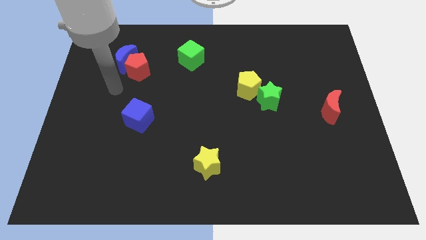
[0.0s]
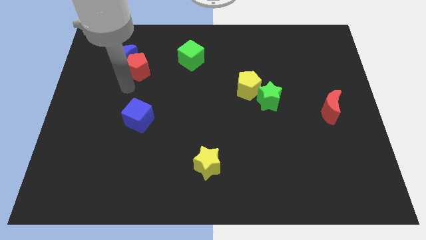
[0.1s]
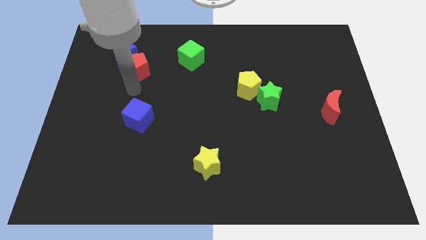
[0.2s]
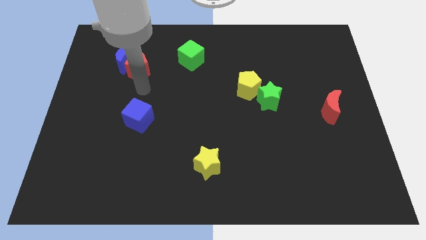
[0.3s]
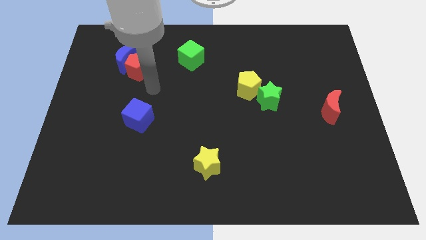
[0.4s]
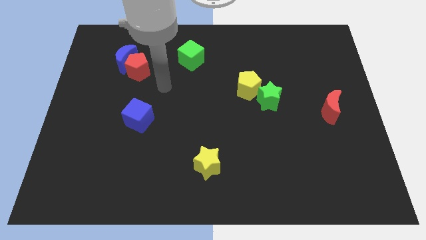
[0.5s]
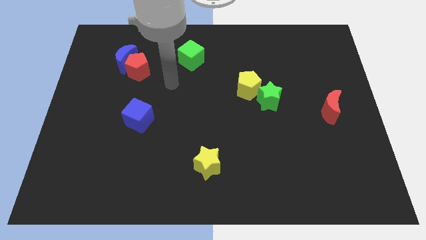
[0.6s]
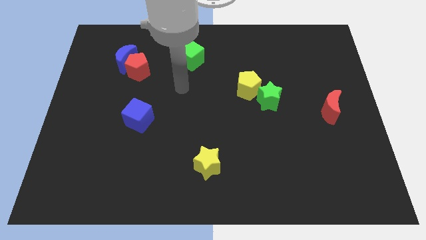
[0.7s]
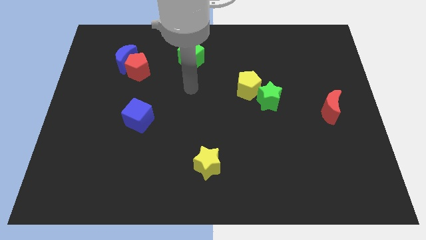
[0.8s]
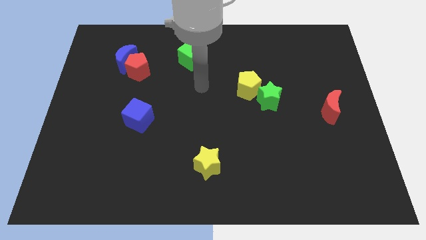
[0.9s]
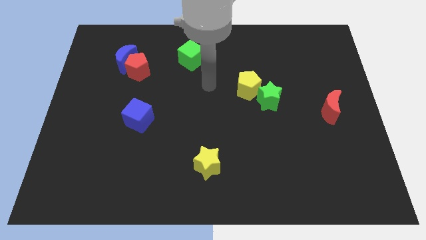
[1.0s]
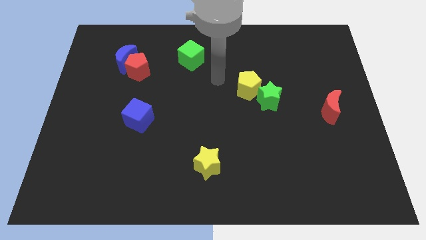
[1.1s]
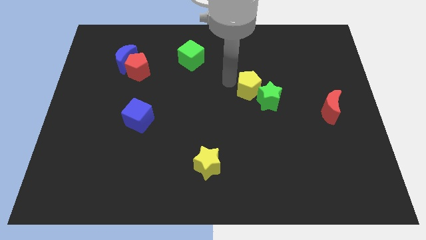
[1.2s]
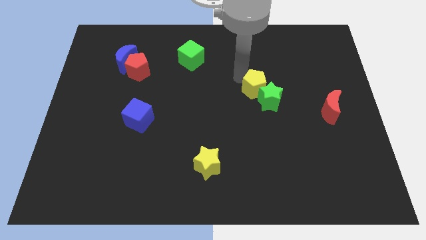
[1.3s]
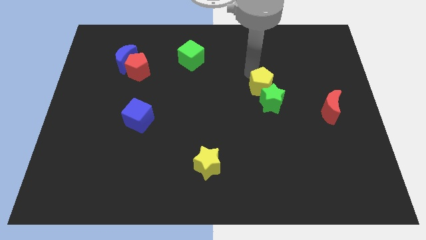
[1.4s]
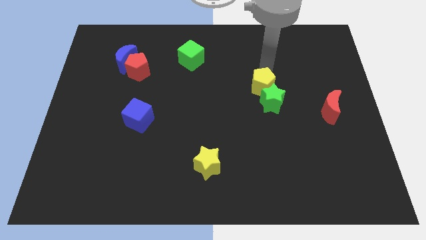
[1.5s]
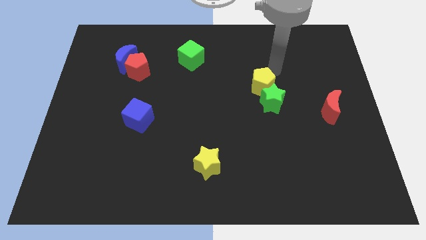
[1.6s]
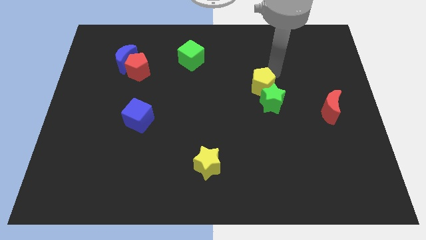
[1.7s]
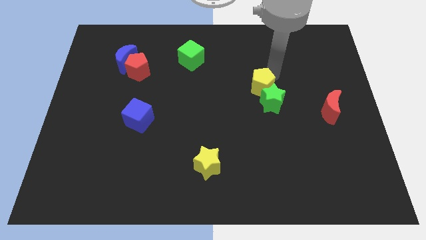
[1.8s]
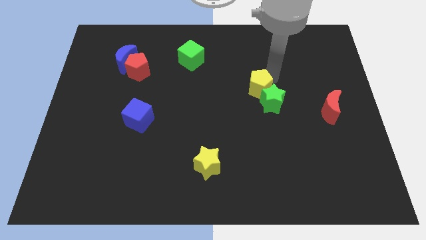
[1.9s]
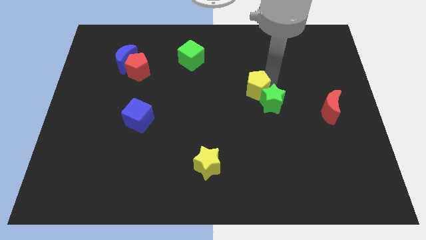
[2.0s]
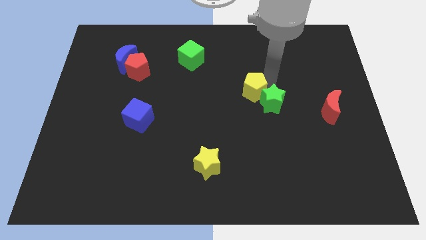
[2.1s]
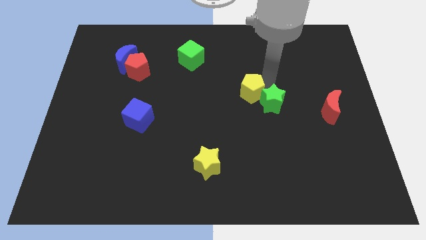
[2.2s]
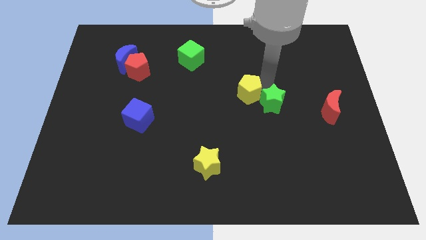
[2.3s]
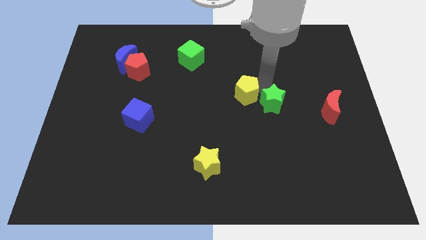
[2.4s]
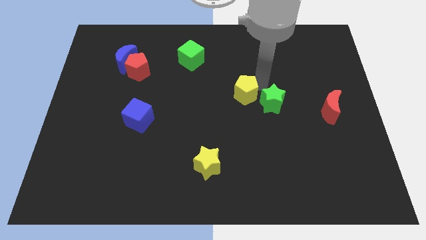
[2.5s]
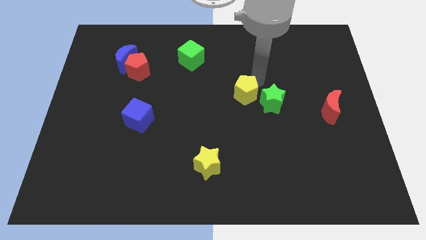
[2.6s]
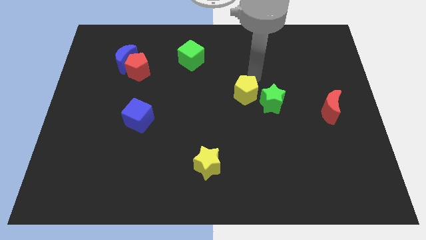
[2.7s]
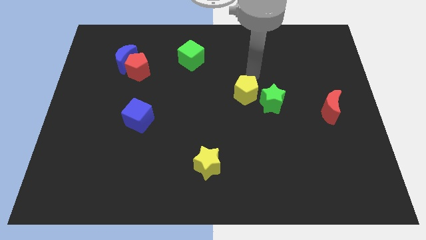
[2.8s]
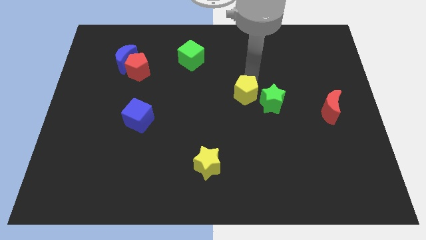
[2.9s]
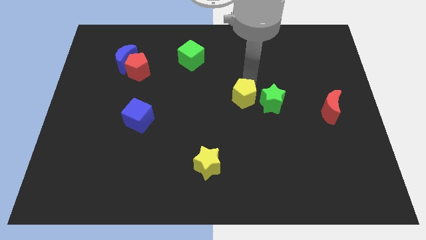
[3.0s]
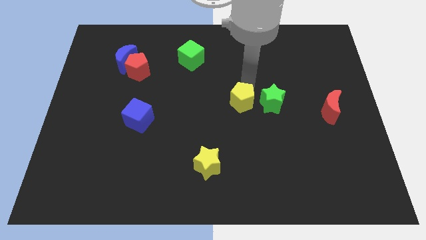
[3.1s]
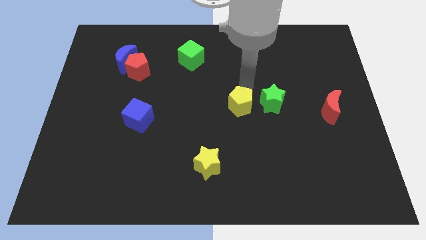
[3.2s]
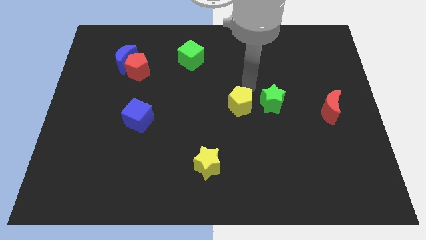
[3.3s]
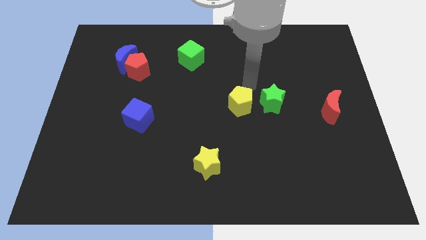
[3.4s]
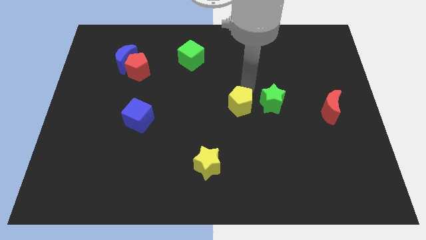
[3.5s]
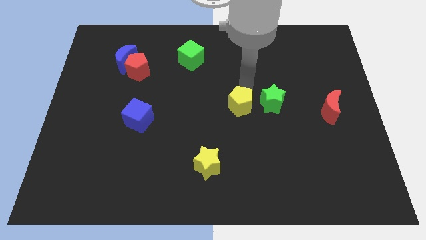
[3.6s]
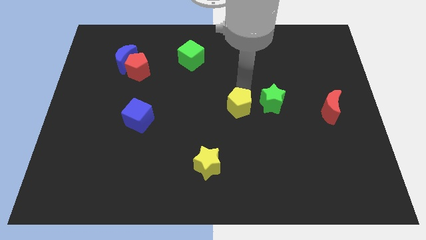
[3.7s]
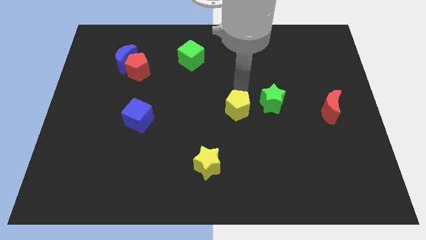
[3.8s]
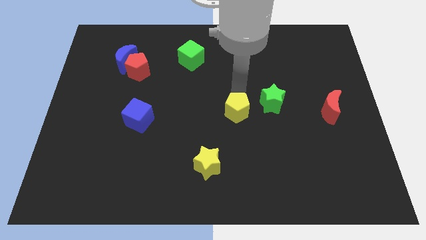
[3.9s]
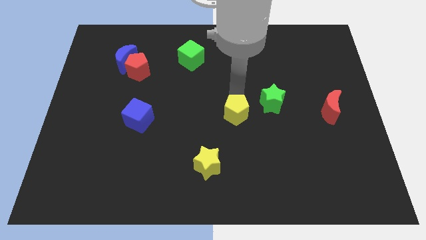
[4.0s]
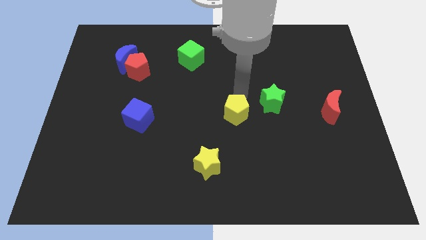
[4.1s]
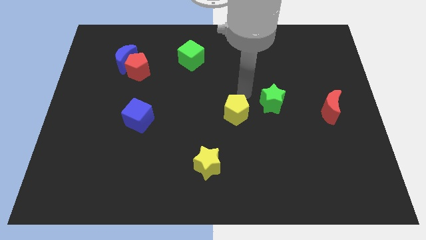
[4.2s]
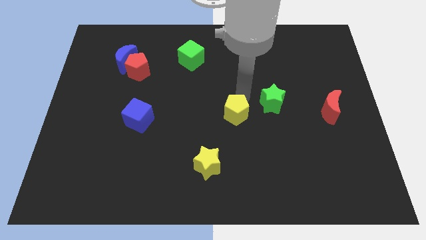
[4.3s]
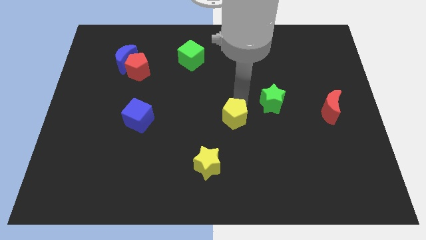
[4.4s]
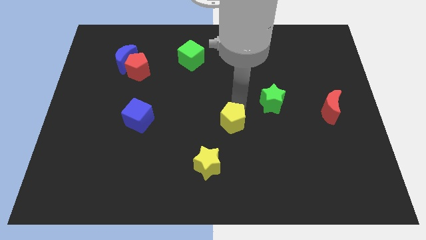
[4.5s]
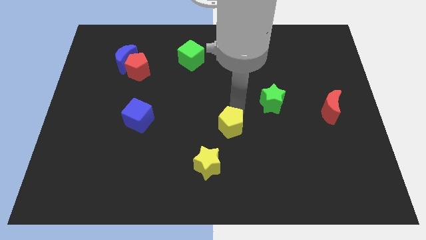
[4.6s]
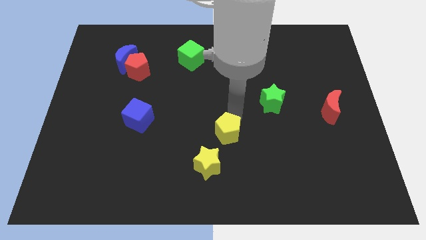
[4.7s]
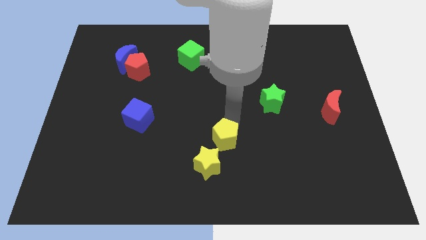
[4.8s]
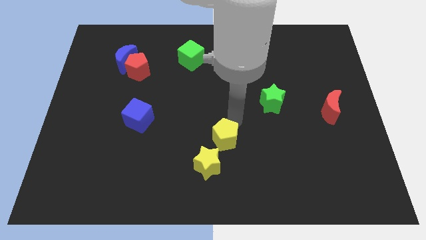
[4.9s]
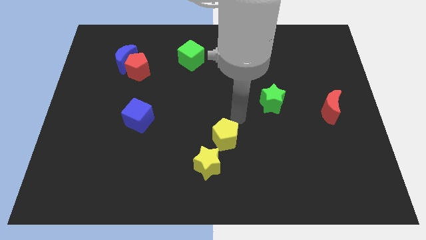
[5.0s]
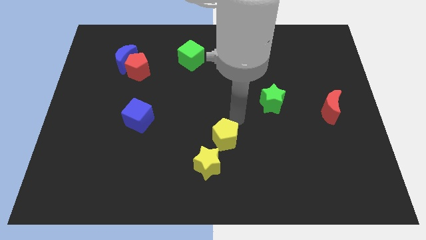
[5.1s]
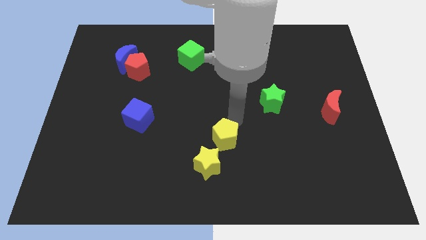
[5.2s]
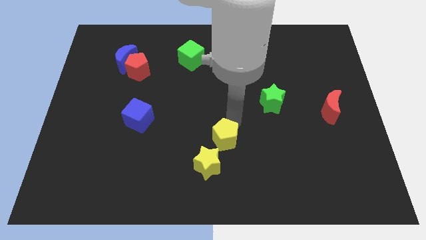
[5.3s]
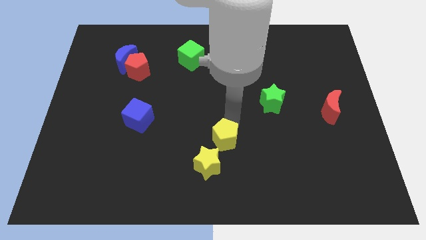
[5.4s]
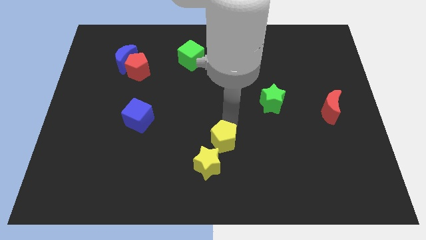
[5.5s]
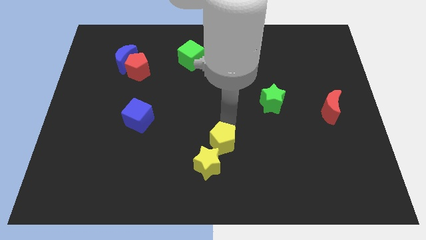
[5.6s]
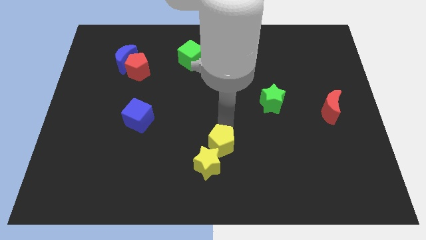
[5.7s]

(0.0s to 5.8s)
slide the yellow pentagon next to the yellow star

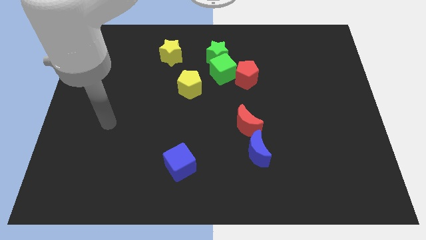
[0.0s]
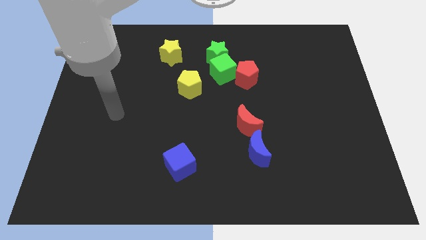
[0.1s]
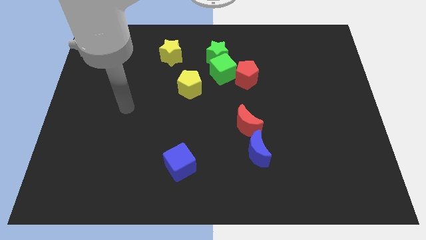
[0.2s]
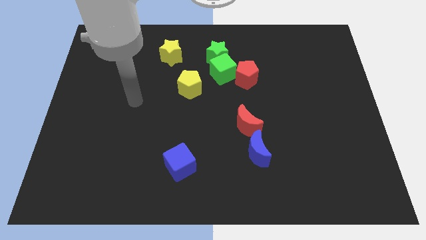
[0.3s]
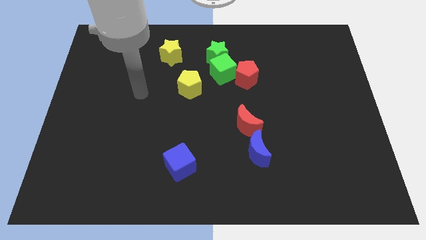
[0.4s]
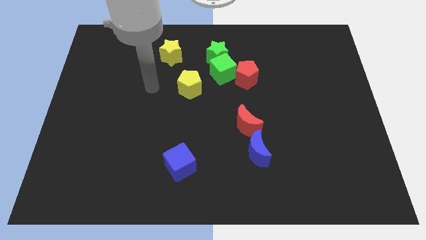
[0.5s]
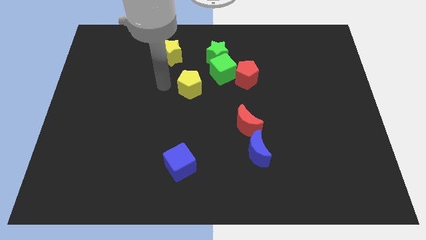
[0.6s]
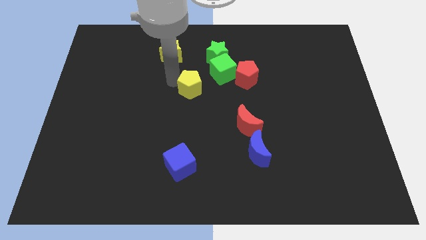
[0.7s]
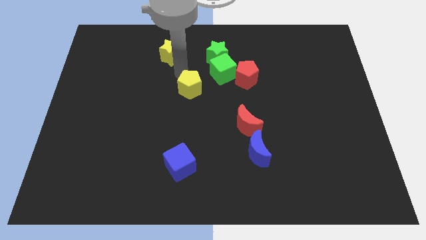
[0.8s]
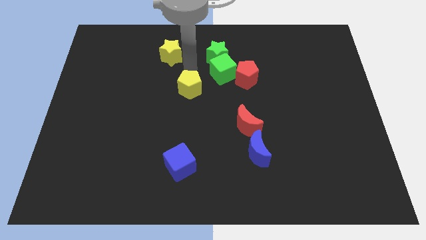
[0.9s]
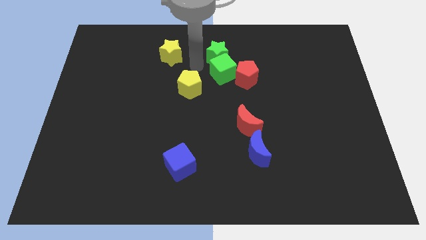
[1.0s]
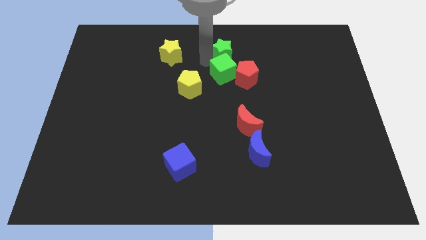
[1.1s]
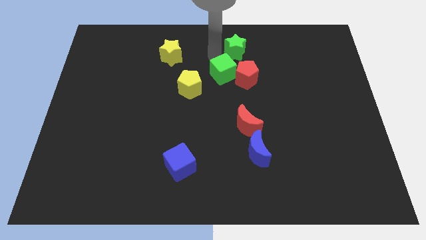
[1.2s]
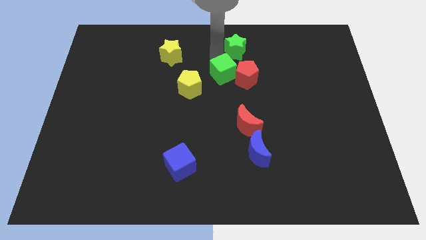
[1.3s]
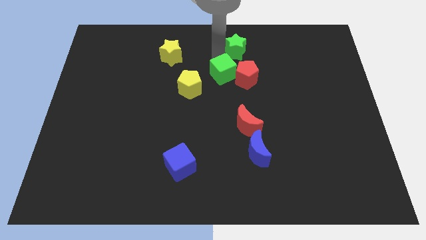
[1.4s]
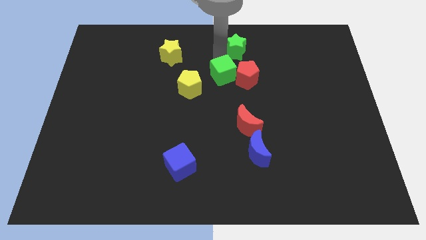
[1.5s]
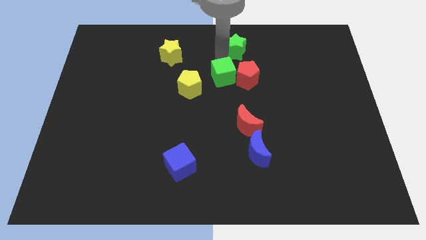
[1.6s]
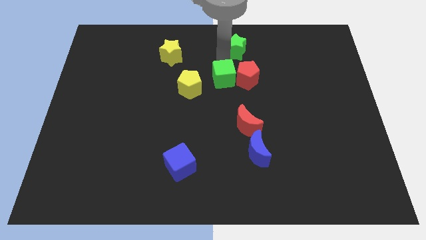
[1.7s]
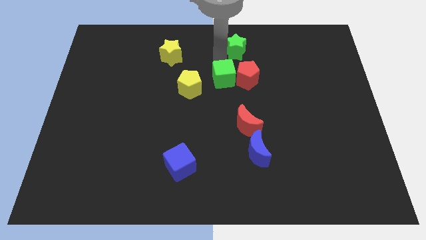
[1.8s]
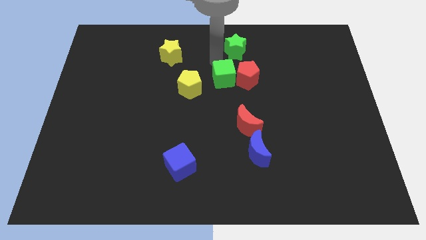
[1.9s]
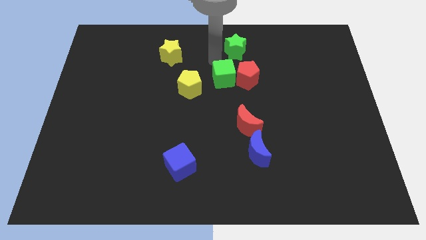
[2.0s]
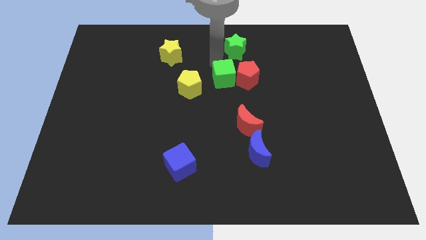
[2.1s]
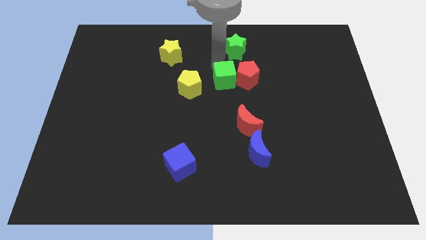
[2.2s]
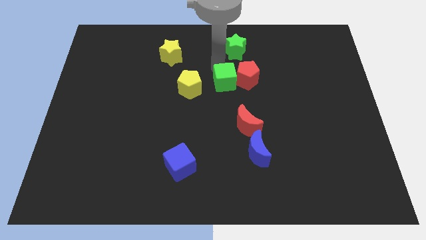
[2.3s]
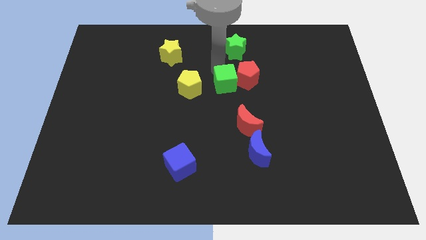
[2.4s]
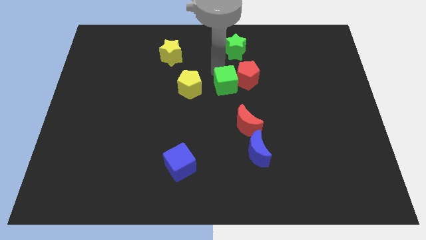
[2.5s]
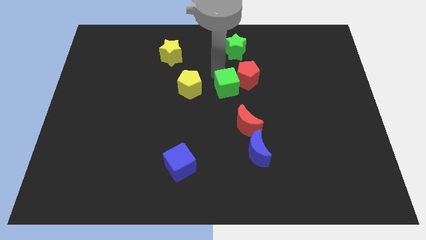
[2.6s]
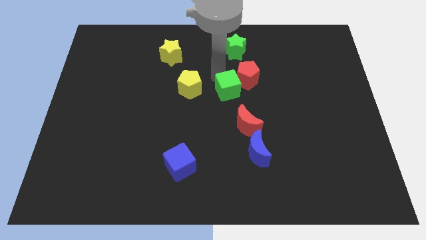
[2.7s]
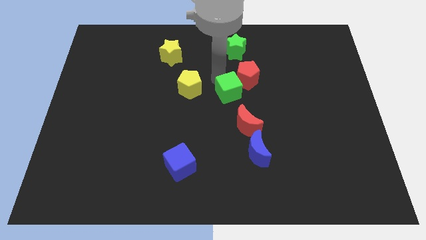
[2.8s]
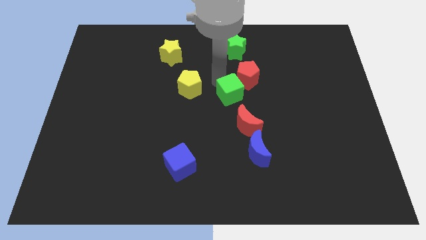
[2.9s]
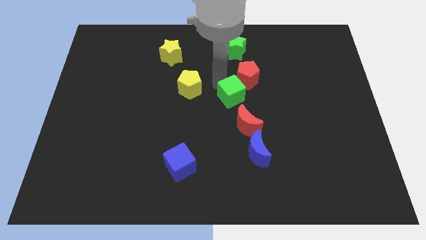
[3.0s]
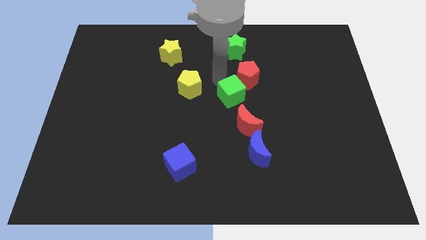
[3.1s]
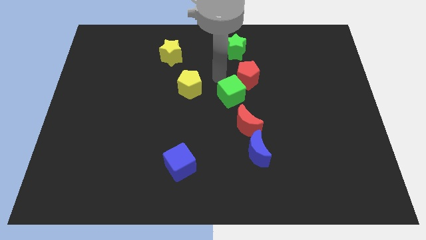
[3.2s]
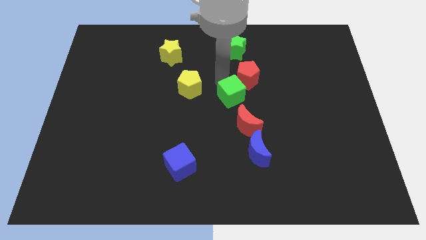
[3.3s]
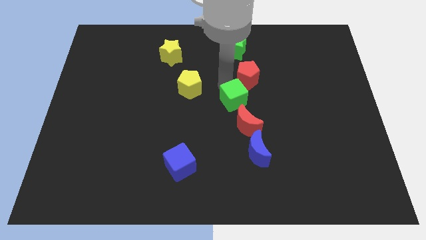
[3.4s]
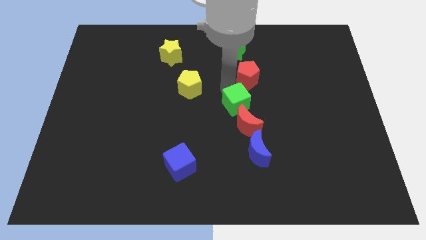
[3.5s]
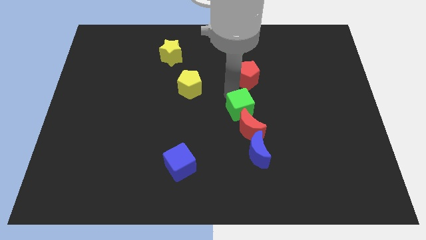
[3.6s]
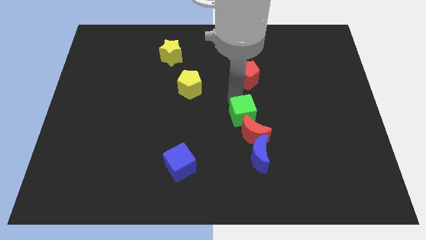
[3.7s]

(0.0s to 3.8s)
put the green cube next to the red moon
